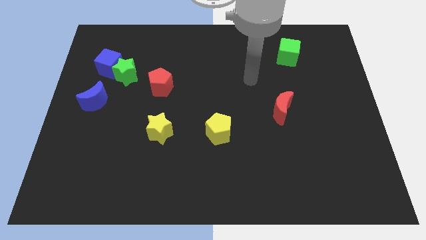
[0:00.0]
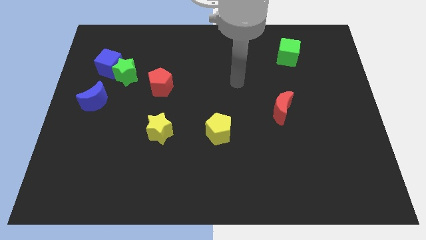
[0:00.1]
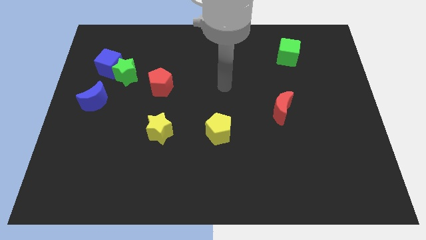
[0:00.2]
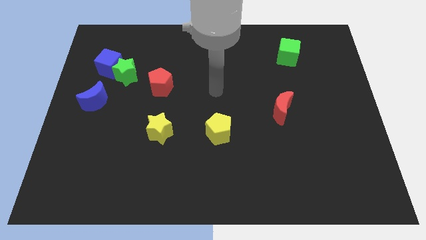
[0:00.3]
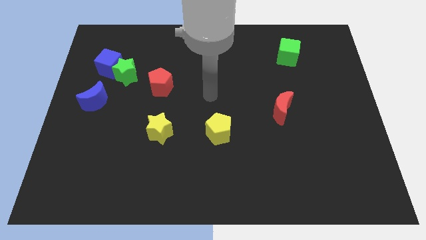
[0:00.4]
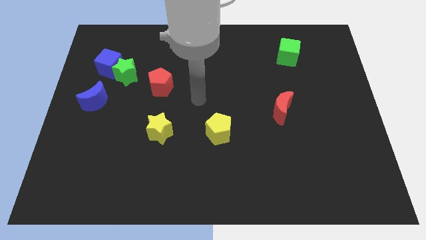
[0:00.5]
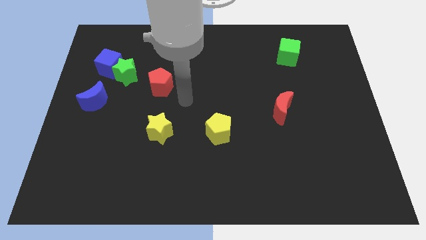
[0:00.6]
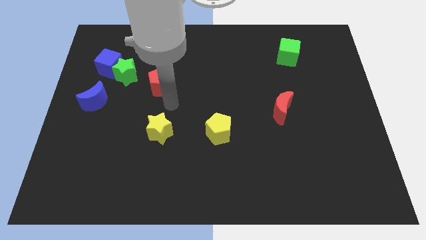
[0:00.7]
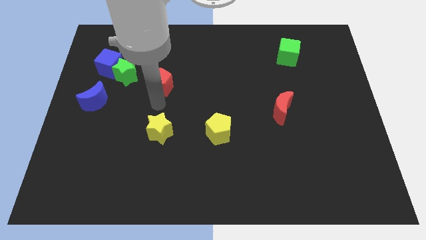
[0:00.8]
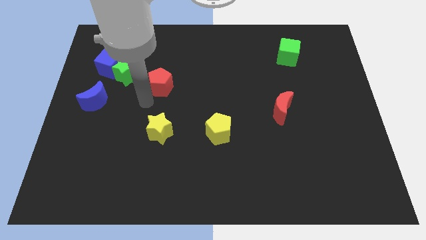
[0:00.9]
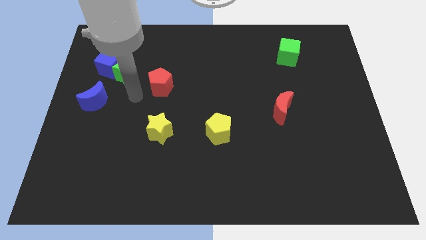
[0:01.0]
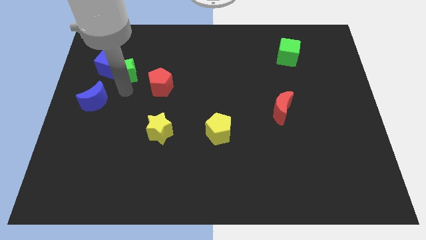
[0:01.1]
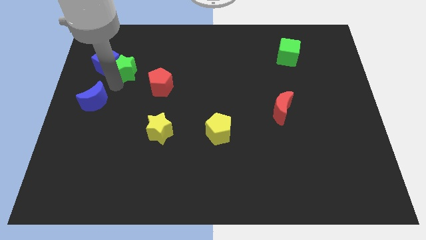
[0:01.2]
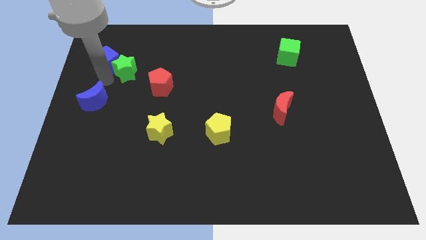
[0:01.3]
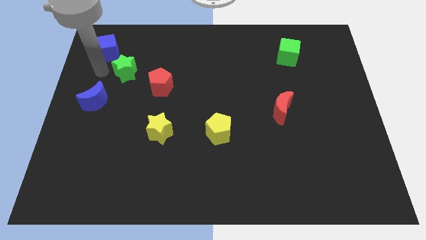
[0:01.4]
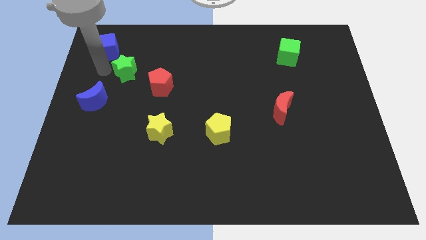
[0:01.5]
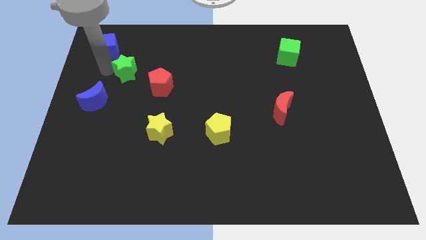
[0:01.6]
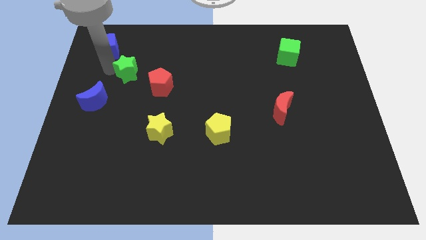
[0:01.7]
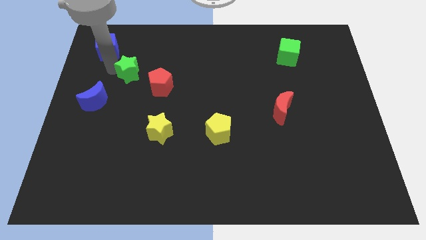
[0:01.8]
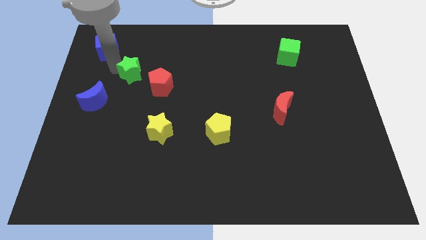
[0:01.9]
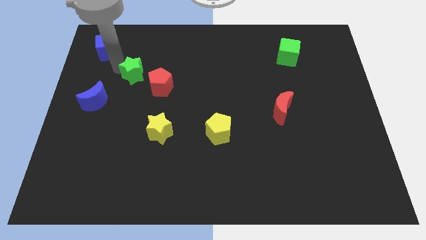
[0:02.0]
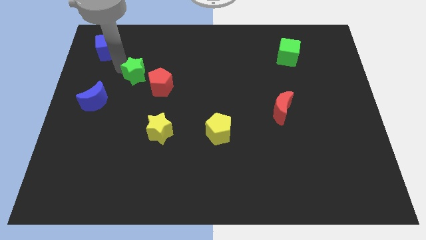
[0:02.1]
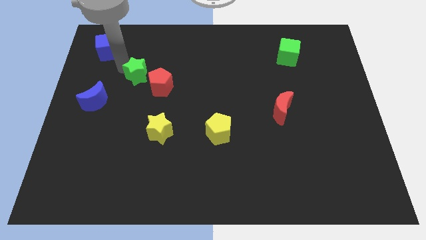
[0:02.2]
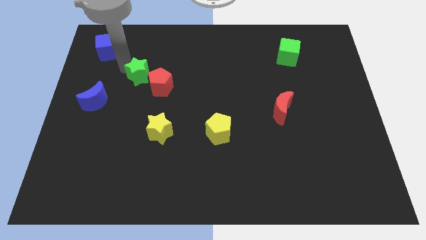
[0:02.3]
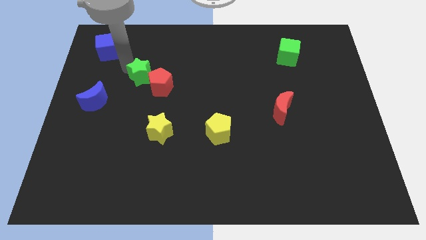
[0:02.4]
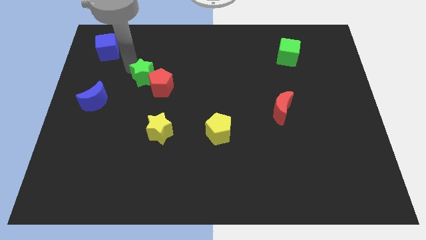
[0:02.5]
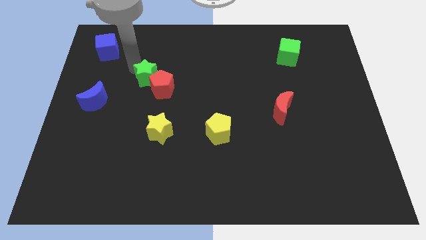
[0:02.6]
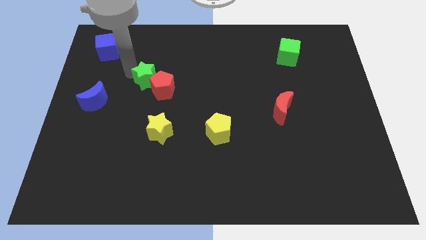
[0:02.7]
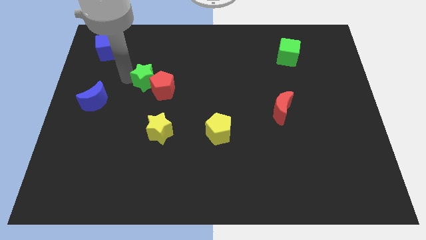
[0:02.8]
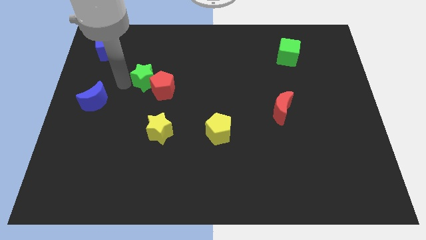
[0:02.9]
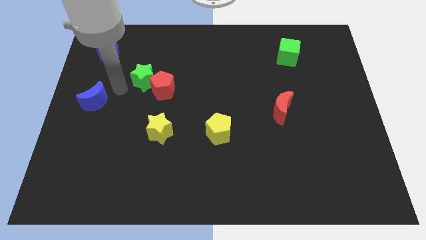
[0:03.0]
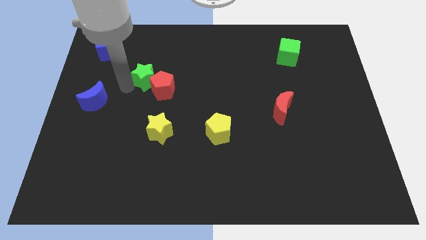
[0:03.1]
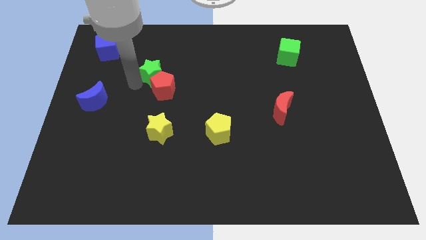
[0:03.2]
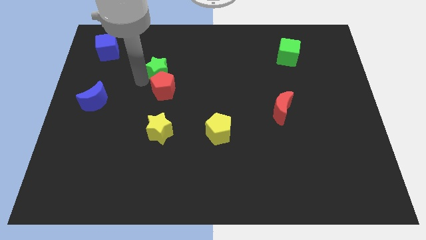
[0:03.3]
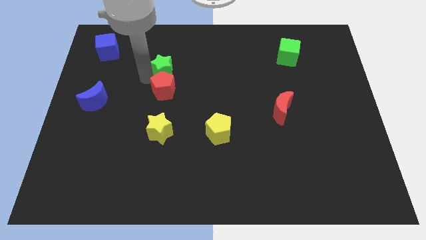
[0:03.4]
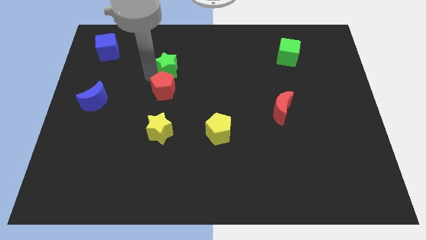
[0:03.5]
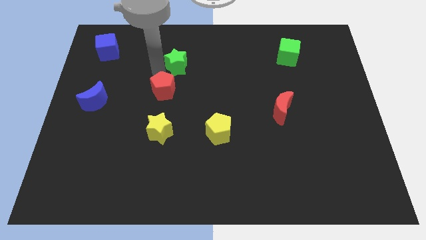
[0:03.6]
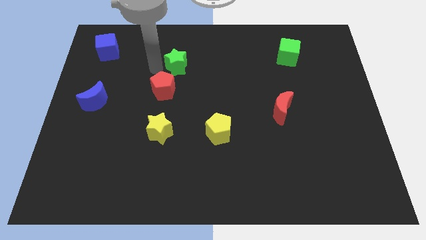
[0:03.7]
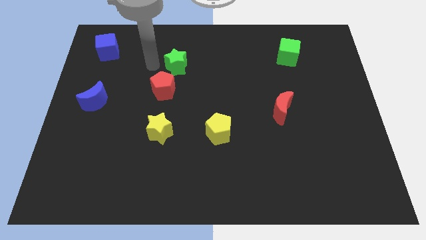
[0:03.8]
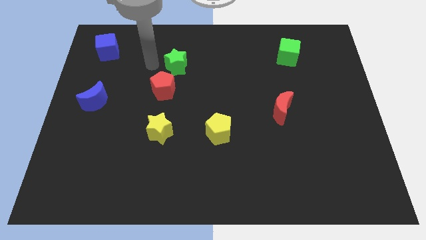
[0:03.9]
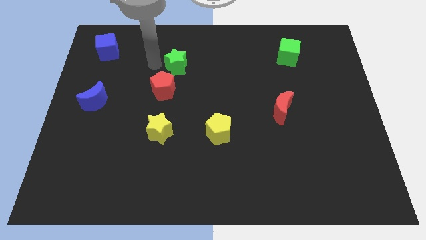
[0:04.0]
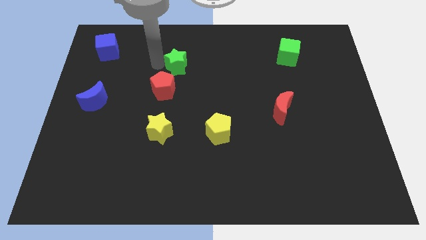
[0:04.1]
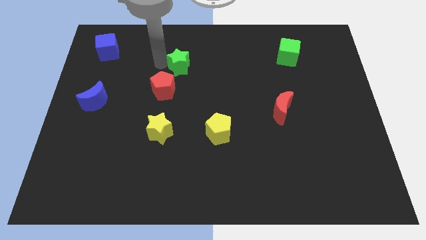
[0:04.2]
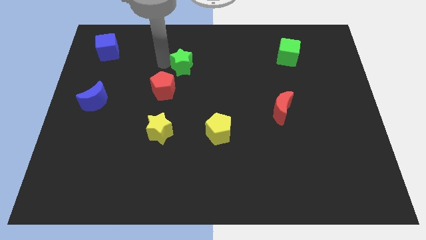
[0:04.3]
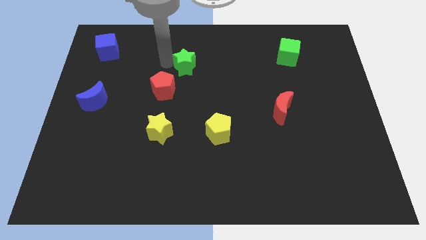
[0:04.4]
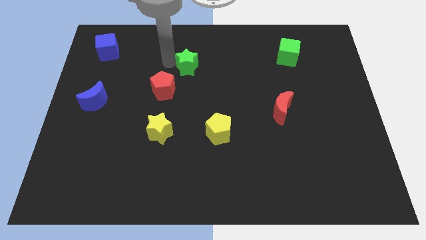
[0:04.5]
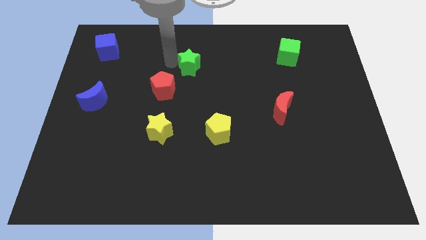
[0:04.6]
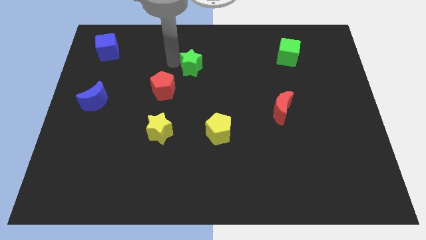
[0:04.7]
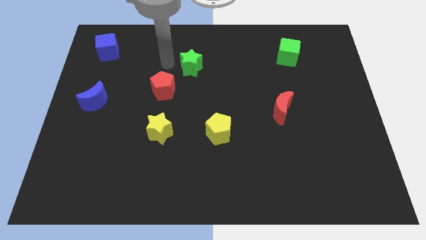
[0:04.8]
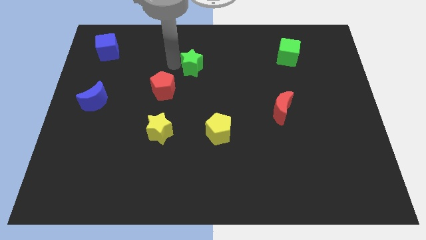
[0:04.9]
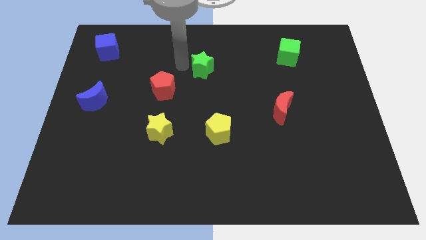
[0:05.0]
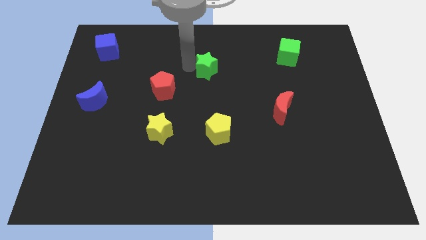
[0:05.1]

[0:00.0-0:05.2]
slide the green star to the right

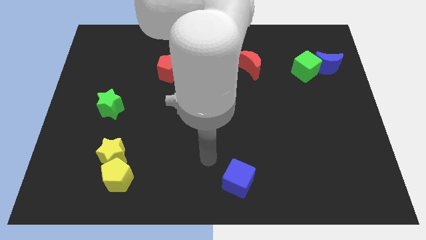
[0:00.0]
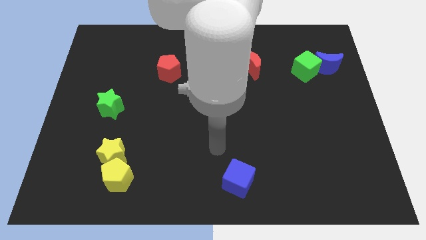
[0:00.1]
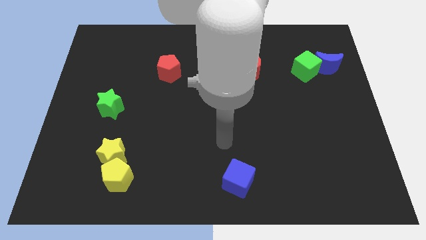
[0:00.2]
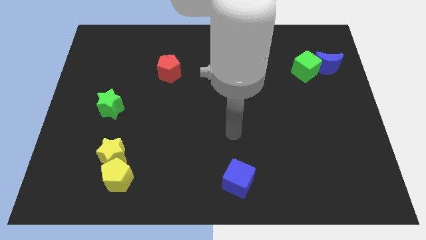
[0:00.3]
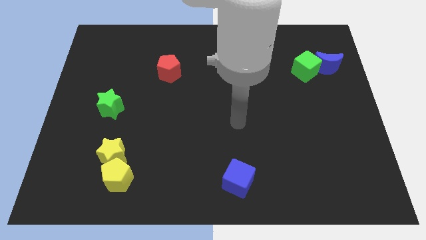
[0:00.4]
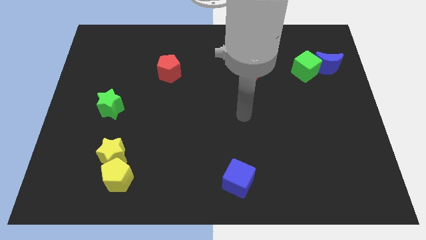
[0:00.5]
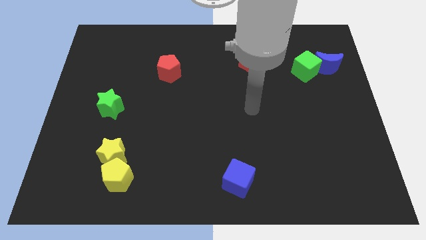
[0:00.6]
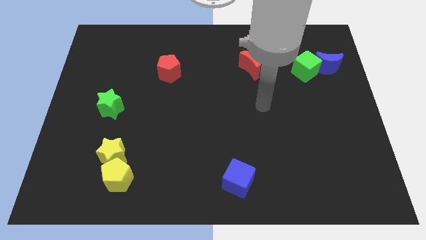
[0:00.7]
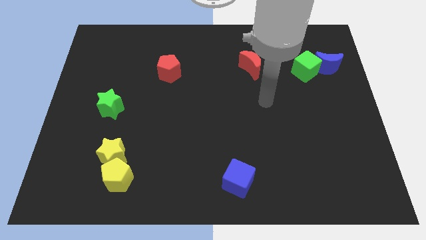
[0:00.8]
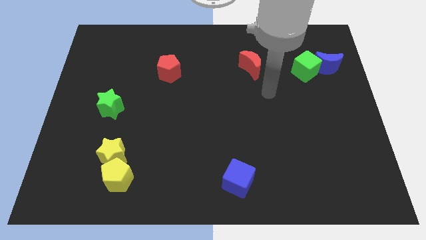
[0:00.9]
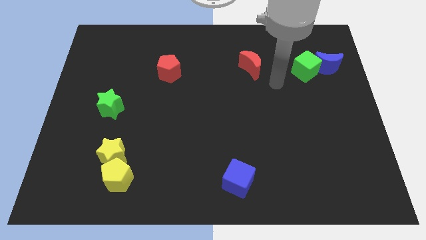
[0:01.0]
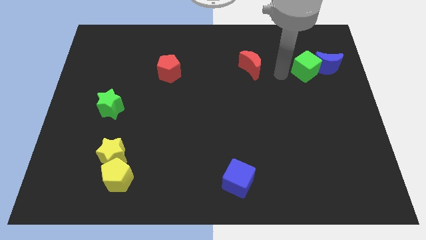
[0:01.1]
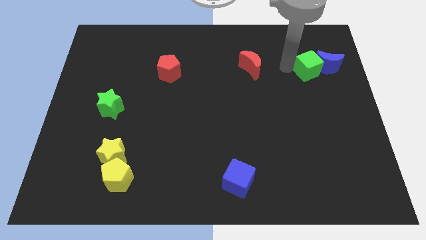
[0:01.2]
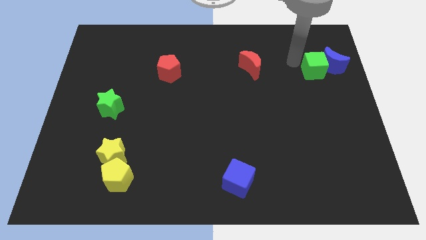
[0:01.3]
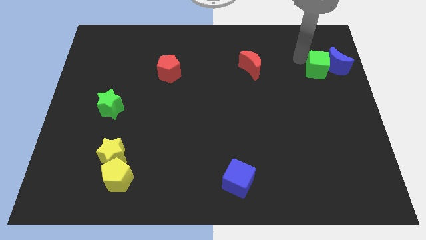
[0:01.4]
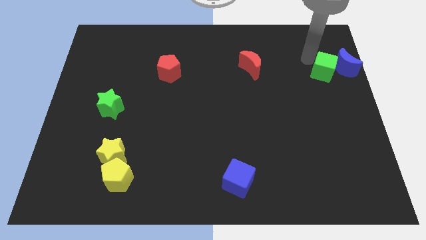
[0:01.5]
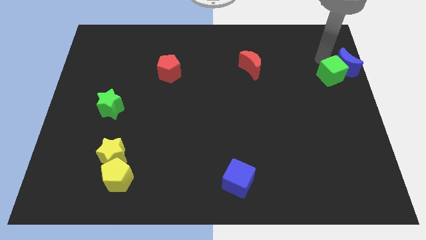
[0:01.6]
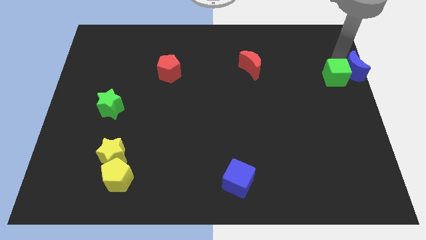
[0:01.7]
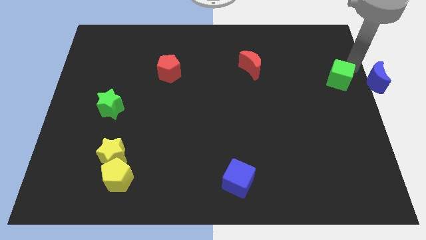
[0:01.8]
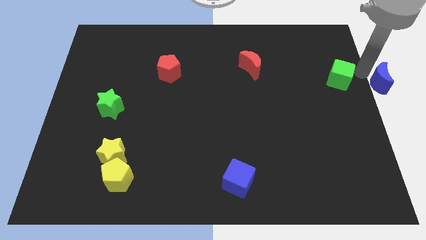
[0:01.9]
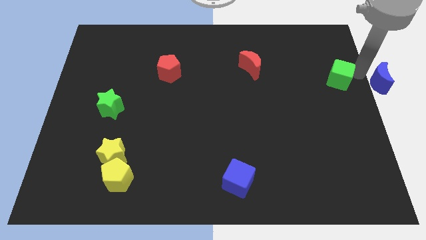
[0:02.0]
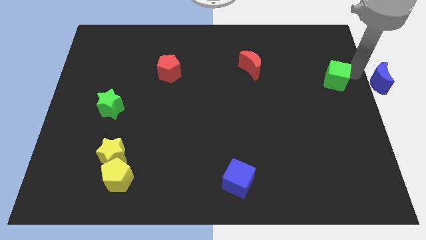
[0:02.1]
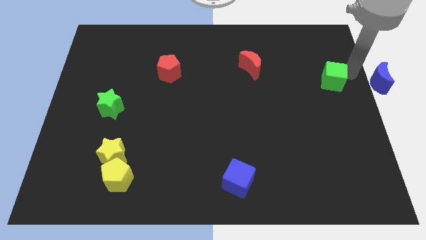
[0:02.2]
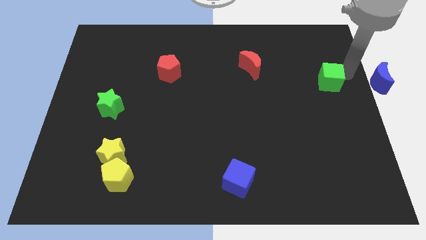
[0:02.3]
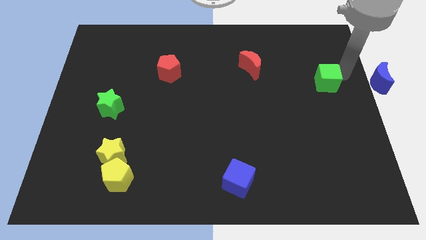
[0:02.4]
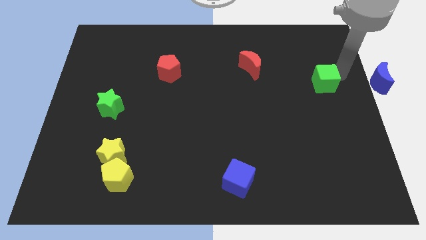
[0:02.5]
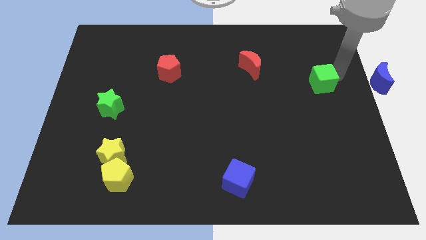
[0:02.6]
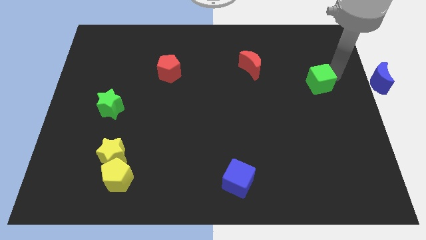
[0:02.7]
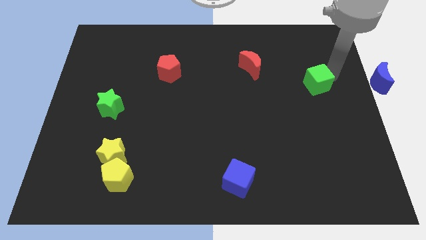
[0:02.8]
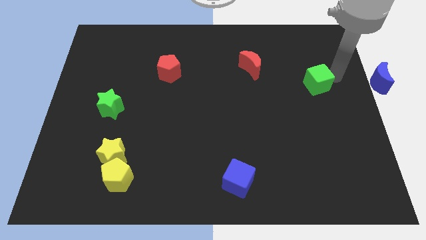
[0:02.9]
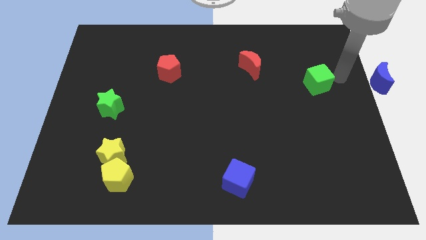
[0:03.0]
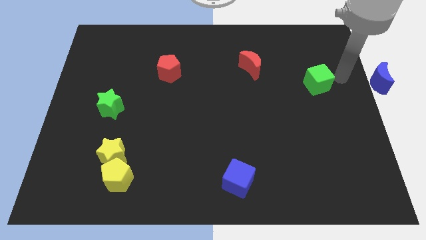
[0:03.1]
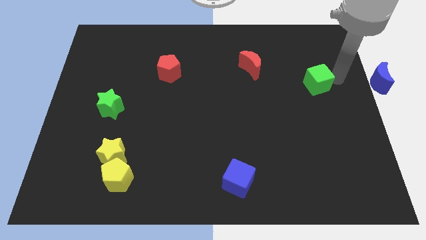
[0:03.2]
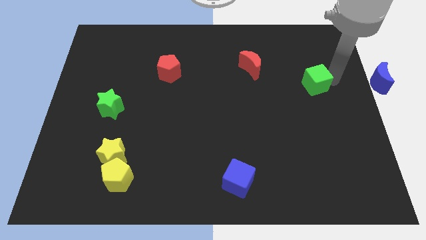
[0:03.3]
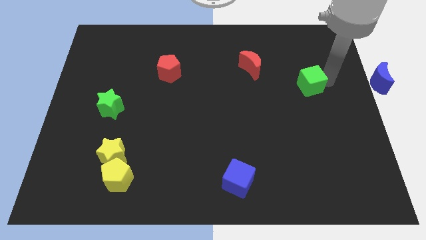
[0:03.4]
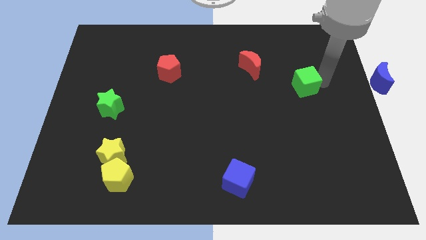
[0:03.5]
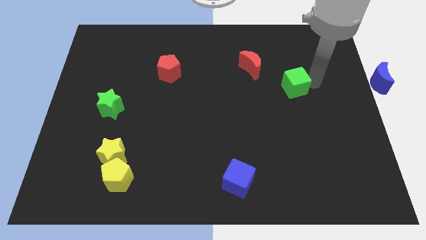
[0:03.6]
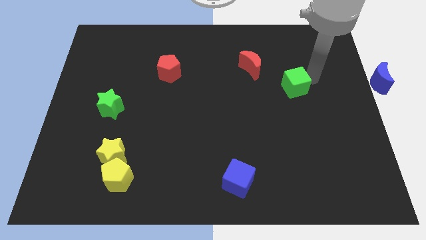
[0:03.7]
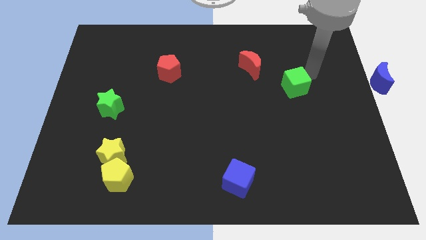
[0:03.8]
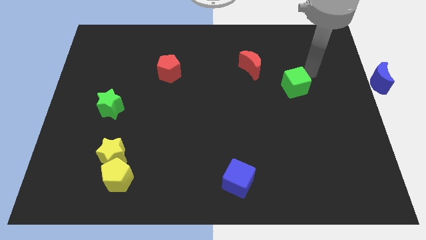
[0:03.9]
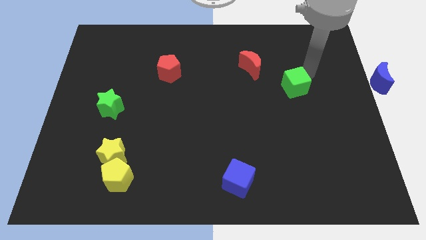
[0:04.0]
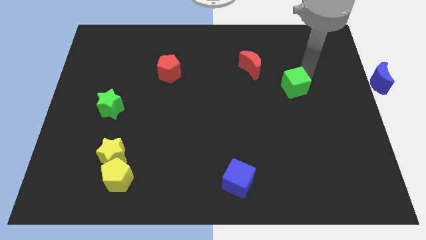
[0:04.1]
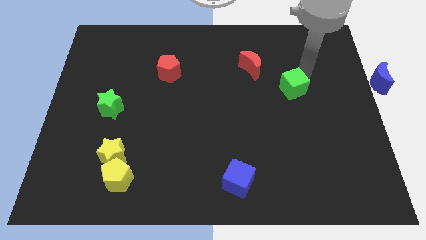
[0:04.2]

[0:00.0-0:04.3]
slightly move the green cube downwards and then left
